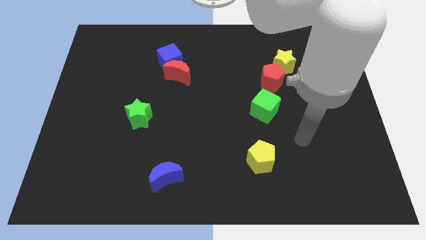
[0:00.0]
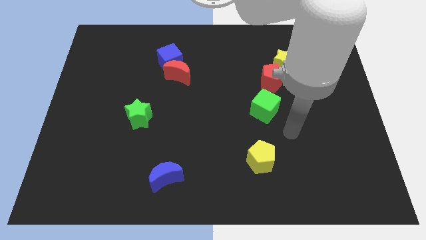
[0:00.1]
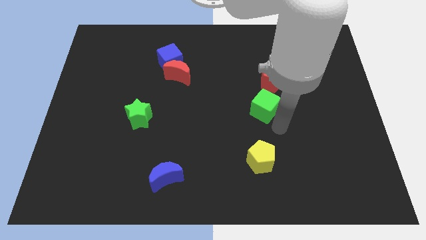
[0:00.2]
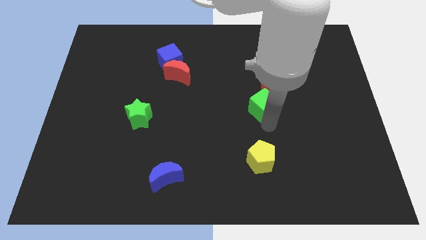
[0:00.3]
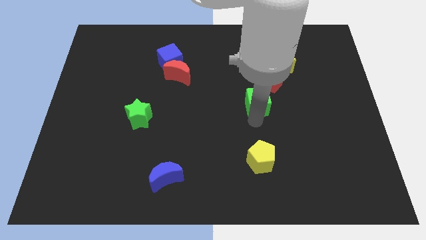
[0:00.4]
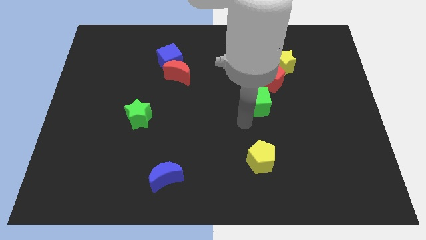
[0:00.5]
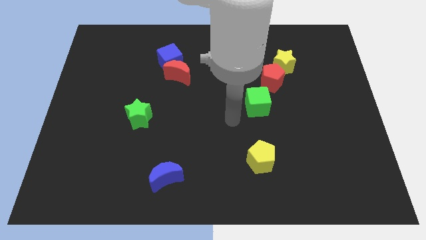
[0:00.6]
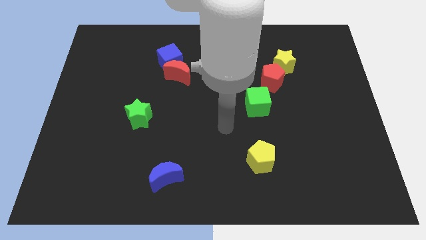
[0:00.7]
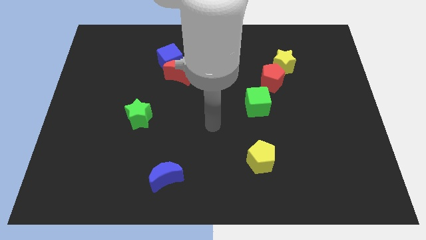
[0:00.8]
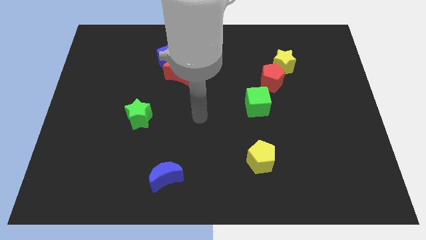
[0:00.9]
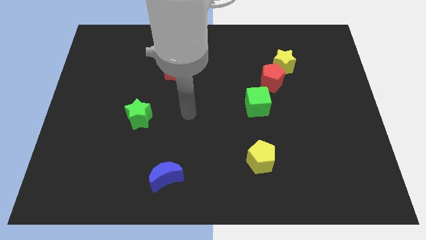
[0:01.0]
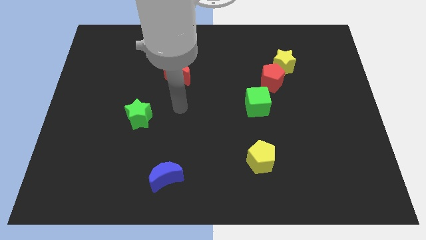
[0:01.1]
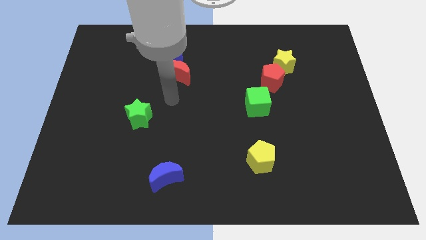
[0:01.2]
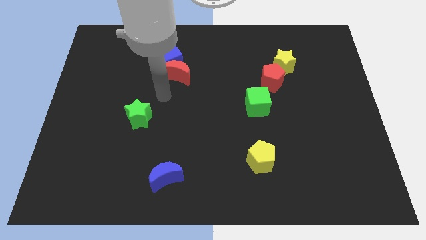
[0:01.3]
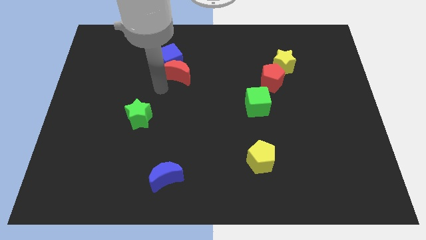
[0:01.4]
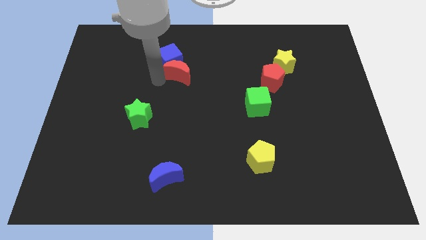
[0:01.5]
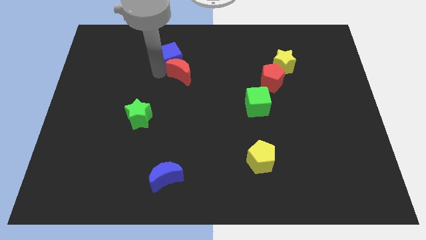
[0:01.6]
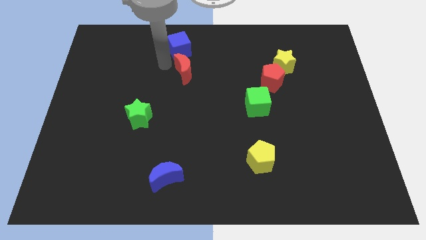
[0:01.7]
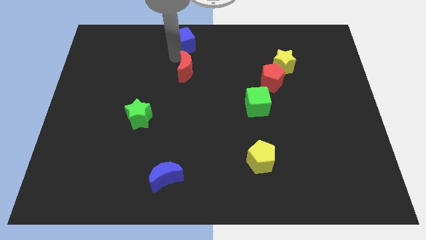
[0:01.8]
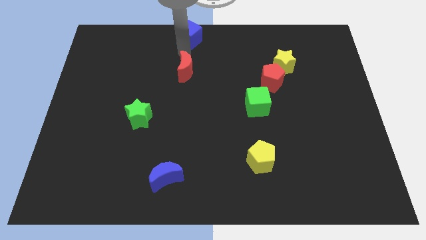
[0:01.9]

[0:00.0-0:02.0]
separate the red moon from the blue cube

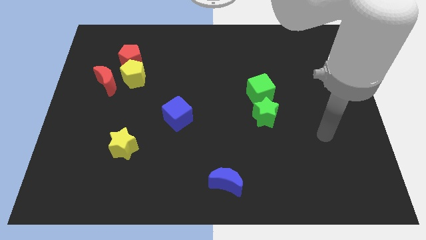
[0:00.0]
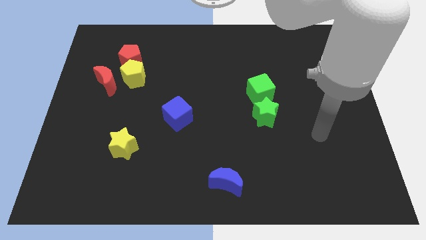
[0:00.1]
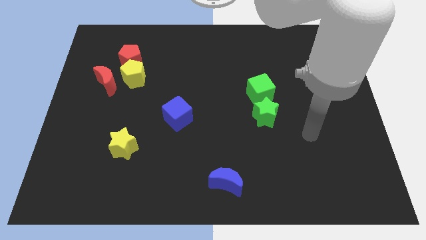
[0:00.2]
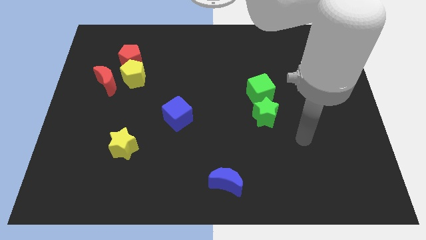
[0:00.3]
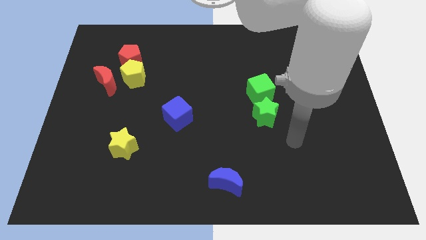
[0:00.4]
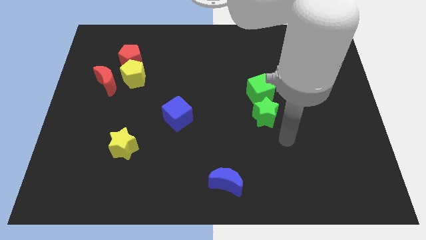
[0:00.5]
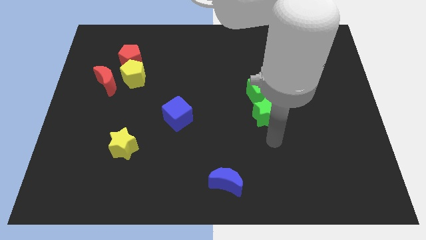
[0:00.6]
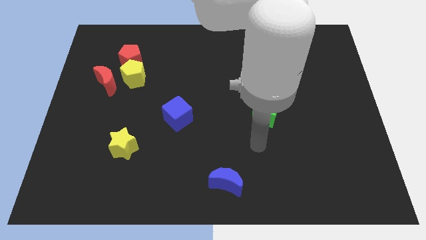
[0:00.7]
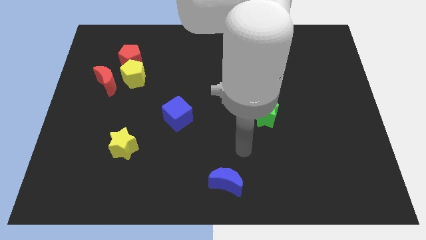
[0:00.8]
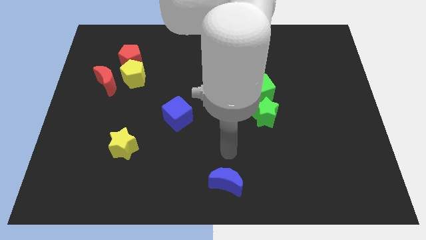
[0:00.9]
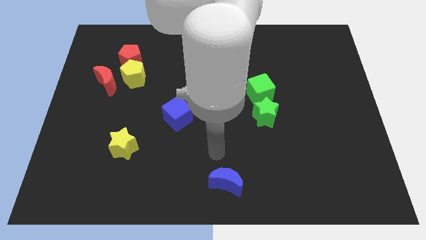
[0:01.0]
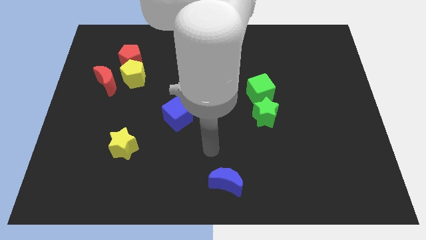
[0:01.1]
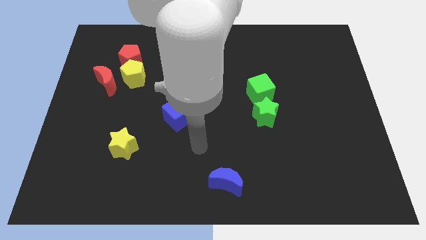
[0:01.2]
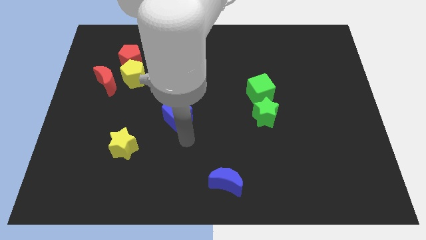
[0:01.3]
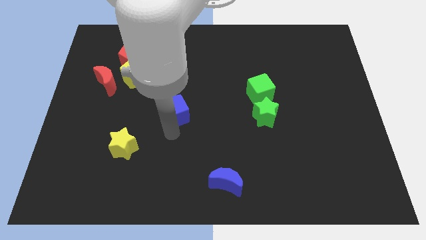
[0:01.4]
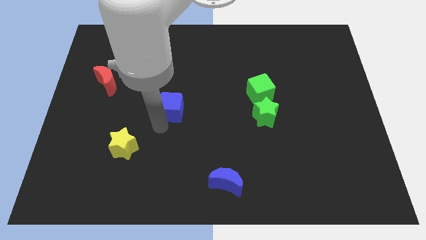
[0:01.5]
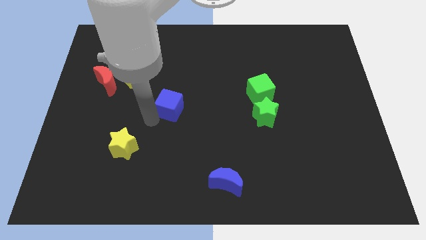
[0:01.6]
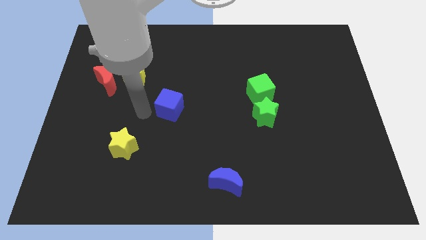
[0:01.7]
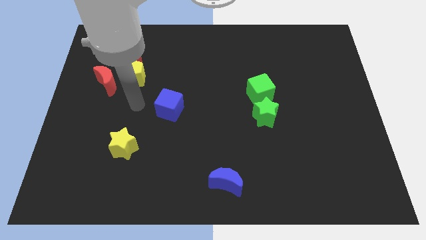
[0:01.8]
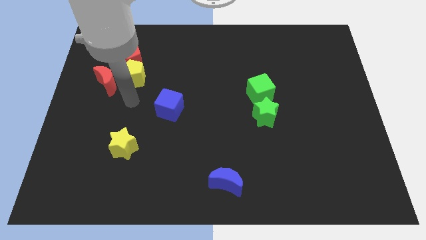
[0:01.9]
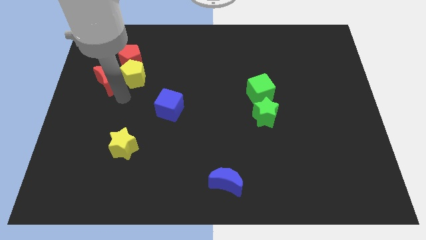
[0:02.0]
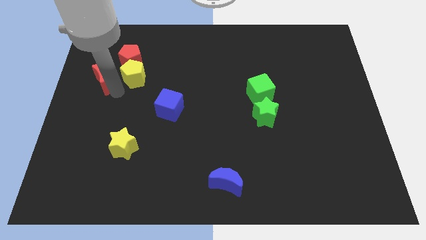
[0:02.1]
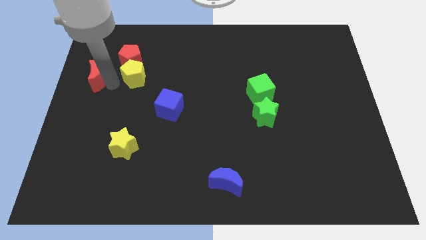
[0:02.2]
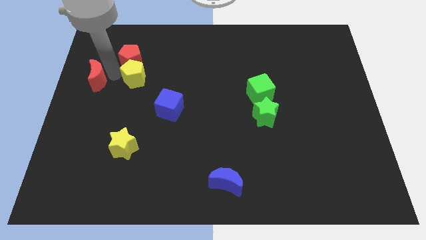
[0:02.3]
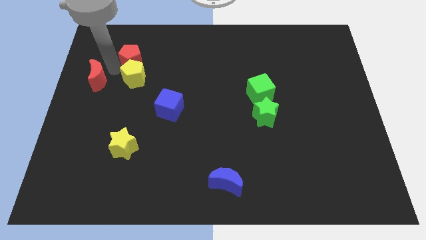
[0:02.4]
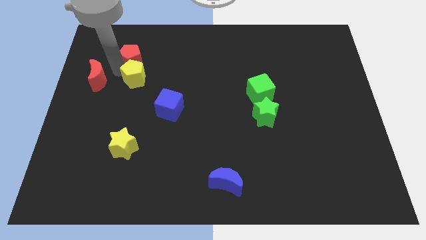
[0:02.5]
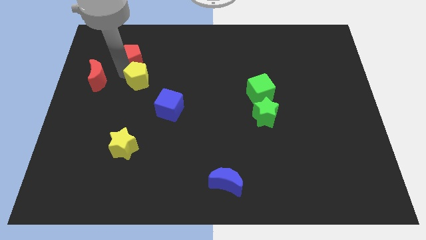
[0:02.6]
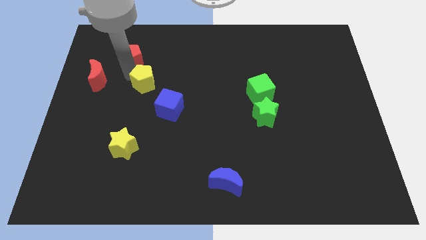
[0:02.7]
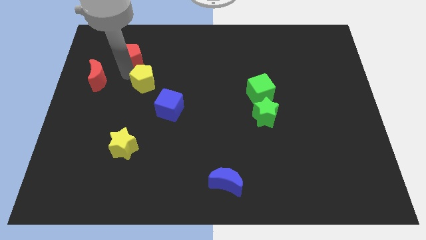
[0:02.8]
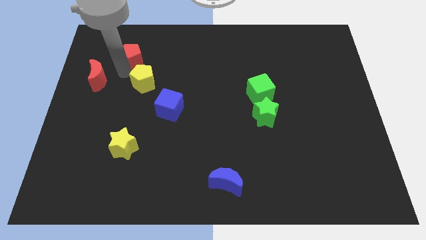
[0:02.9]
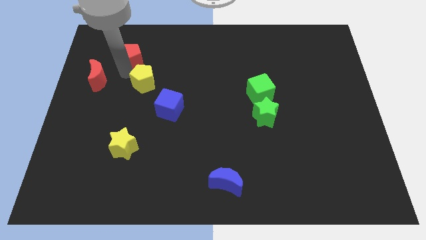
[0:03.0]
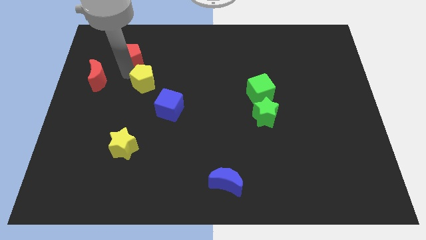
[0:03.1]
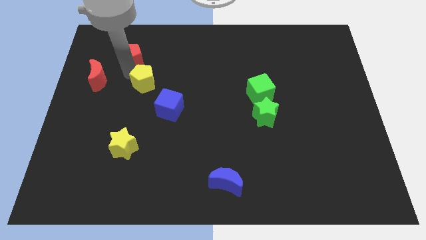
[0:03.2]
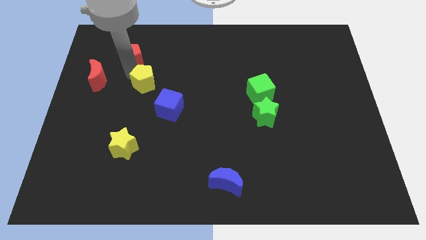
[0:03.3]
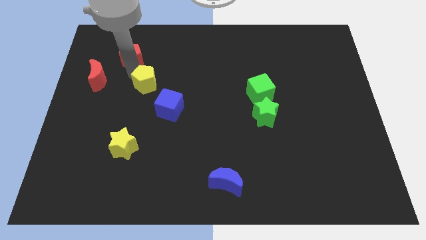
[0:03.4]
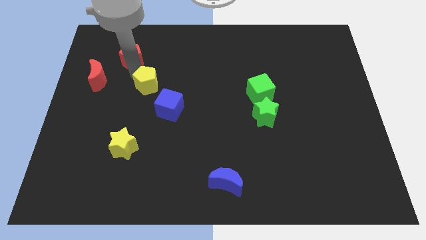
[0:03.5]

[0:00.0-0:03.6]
move the yellow pentagon away from the red pentagon and red moon

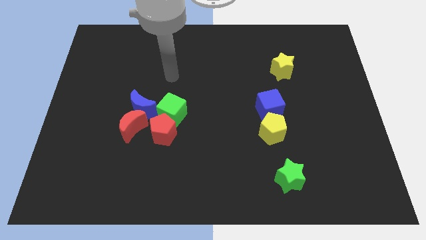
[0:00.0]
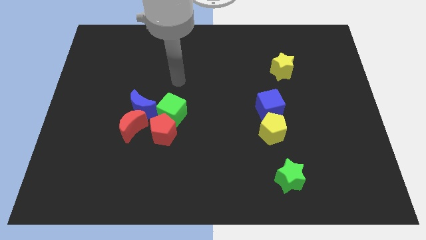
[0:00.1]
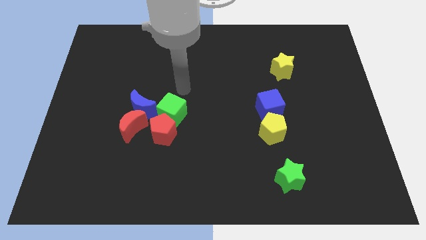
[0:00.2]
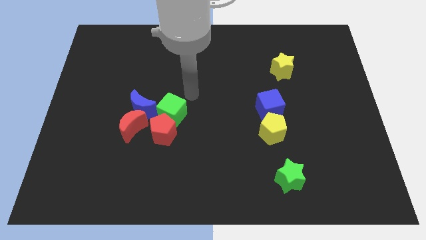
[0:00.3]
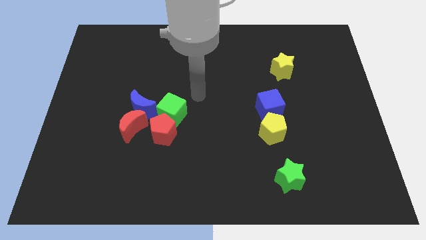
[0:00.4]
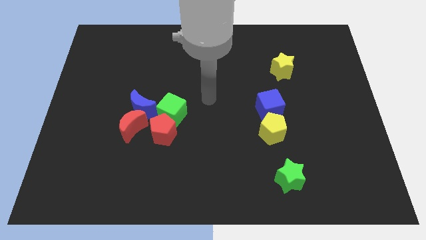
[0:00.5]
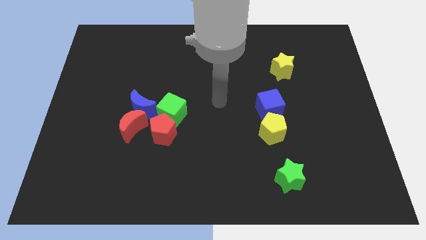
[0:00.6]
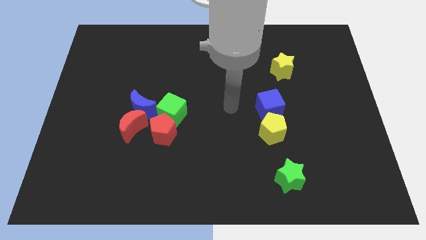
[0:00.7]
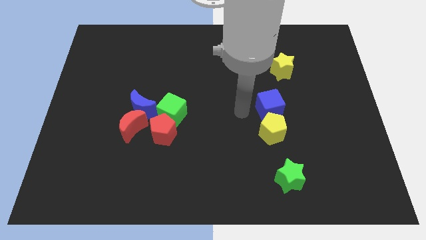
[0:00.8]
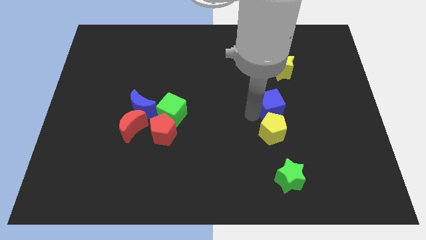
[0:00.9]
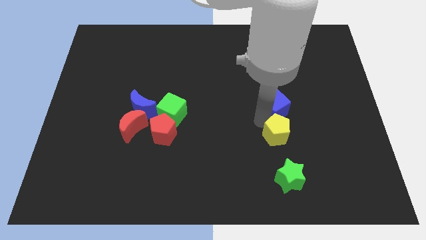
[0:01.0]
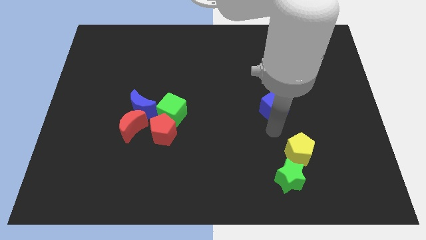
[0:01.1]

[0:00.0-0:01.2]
pull the blue cube apart from the yellow pentagon

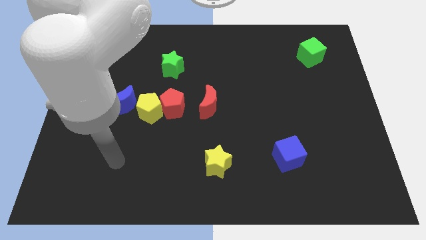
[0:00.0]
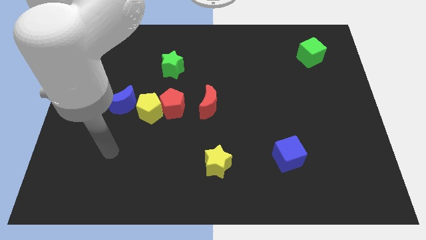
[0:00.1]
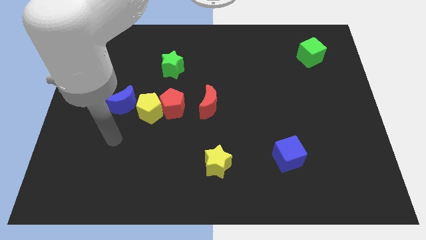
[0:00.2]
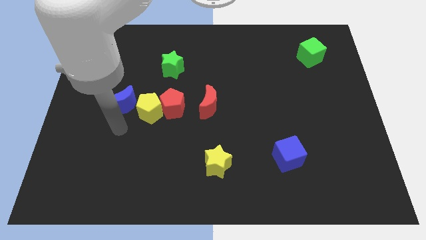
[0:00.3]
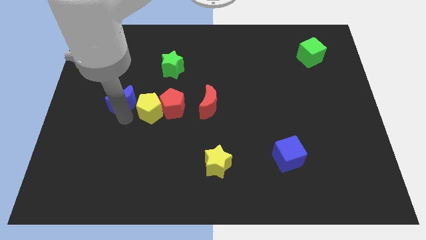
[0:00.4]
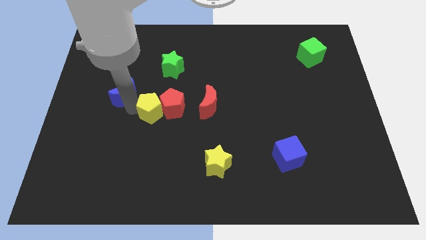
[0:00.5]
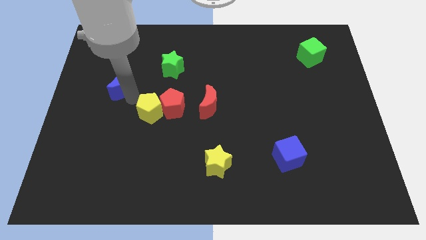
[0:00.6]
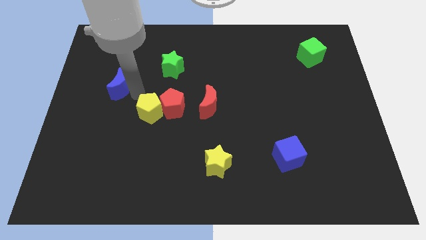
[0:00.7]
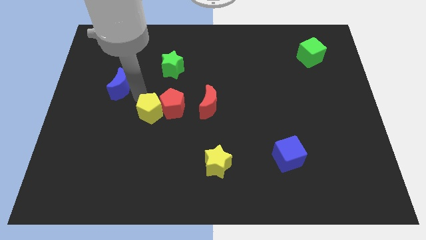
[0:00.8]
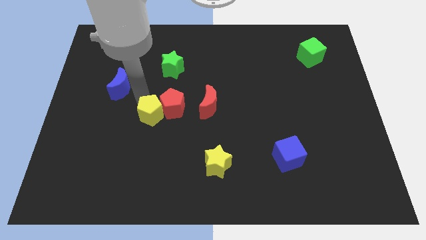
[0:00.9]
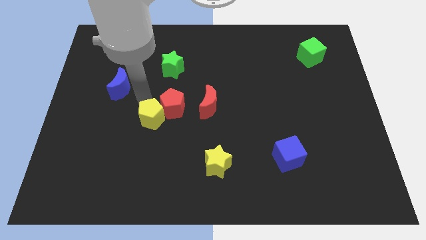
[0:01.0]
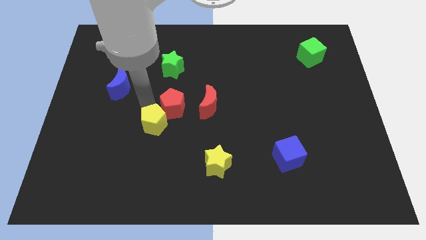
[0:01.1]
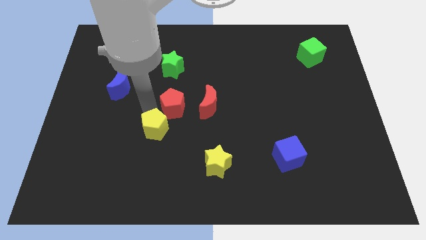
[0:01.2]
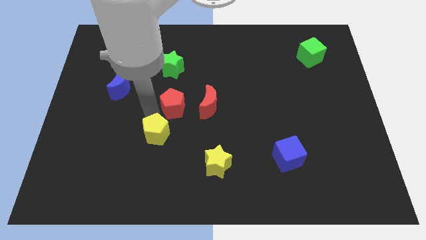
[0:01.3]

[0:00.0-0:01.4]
pull the yellow pentagon apart from the red pentagon and blue moon

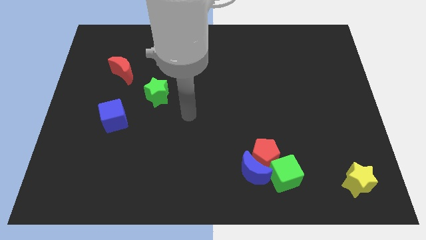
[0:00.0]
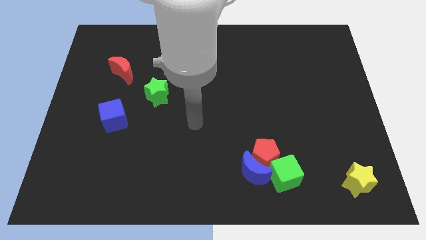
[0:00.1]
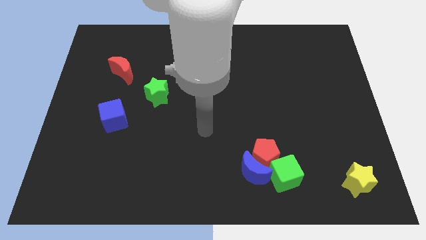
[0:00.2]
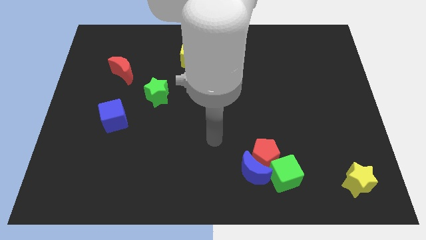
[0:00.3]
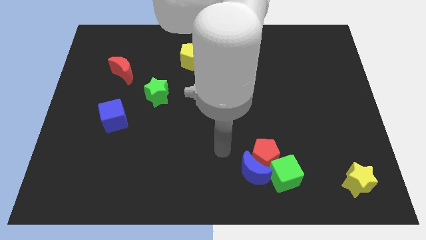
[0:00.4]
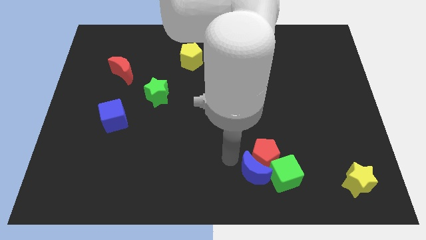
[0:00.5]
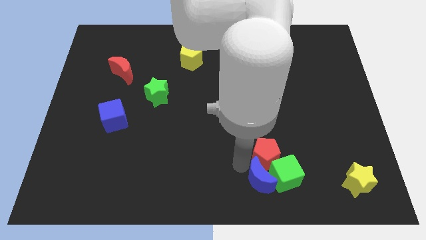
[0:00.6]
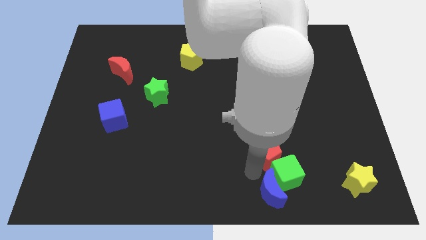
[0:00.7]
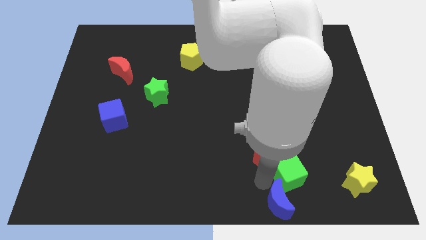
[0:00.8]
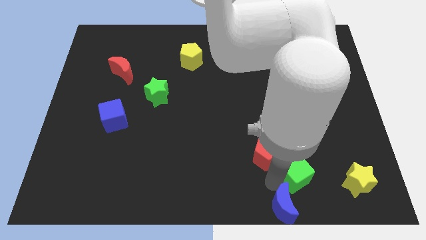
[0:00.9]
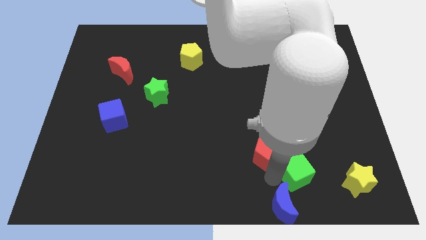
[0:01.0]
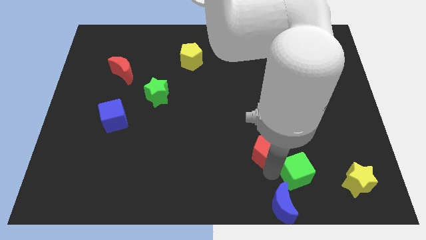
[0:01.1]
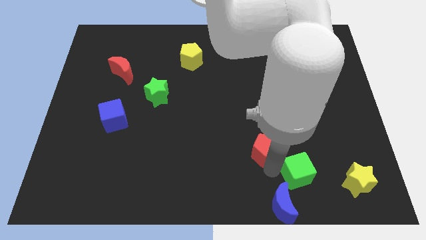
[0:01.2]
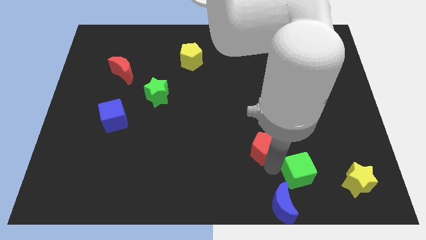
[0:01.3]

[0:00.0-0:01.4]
pull the red pentagon apart from the blue moon and green cube
